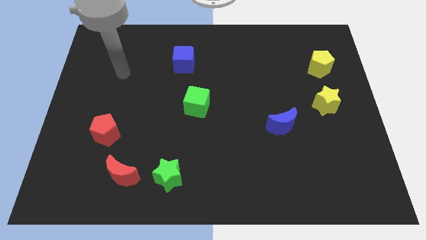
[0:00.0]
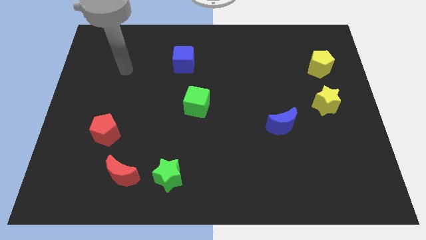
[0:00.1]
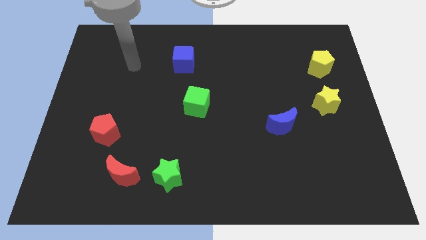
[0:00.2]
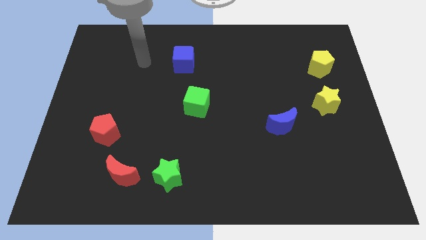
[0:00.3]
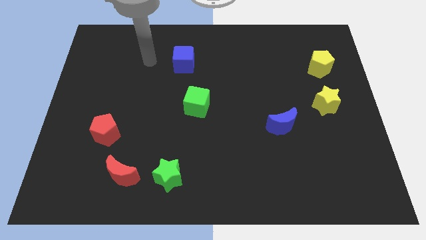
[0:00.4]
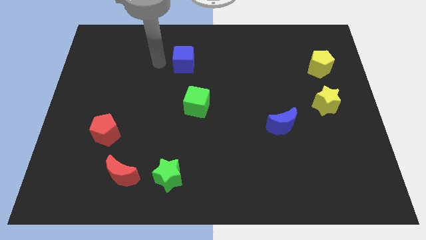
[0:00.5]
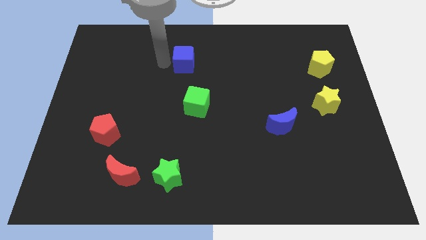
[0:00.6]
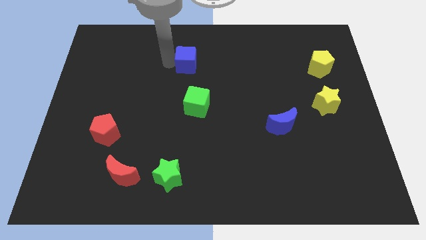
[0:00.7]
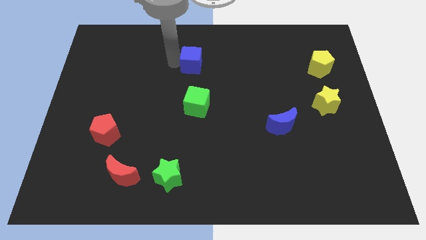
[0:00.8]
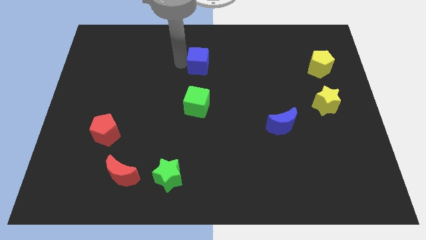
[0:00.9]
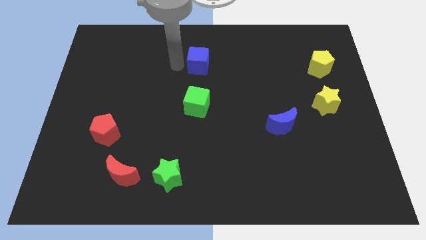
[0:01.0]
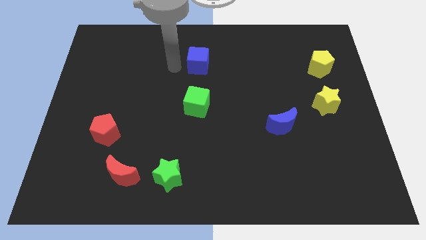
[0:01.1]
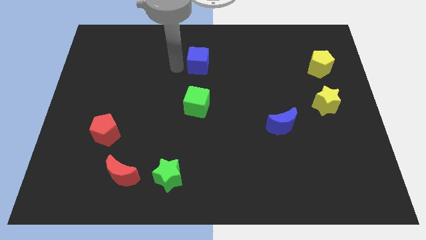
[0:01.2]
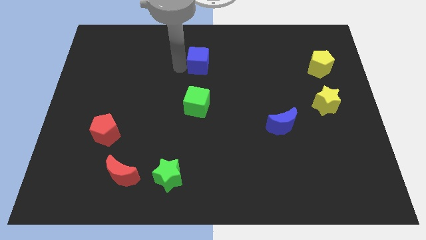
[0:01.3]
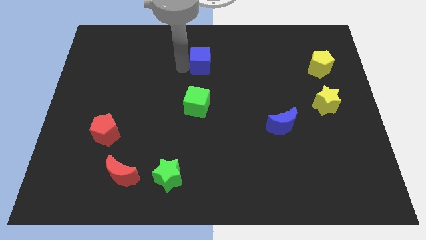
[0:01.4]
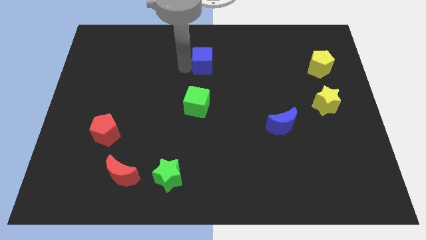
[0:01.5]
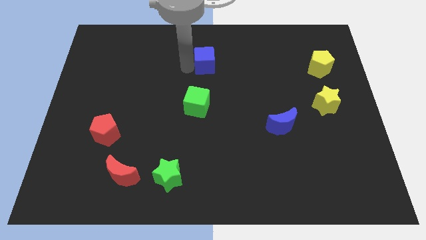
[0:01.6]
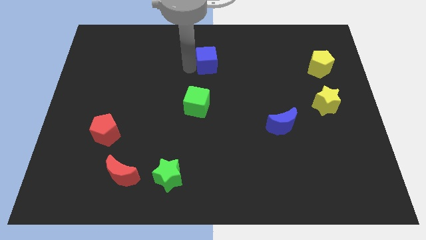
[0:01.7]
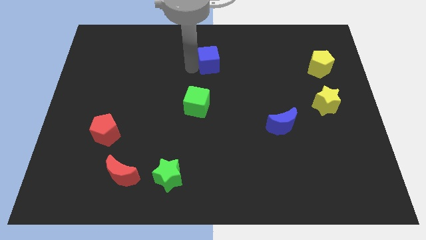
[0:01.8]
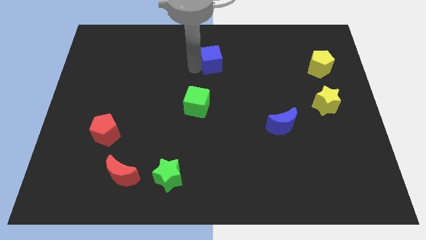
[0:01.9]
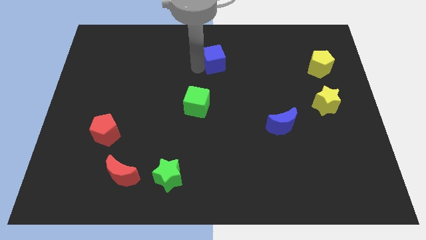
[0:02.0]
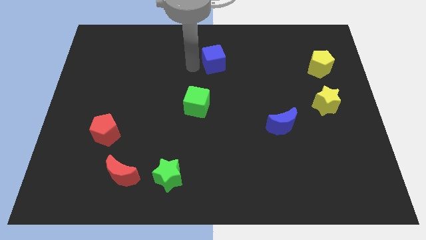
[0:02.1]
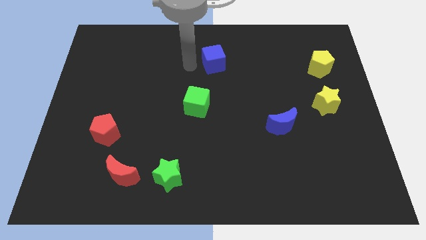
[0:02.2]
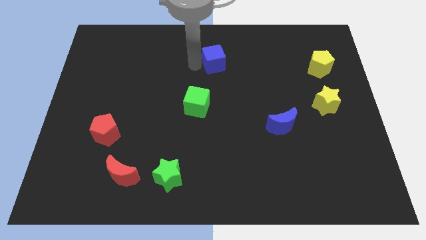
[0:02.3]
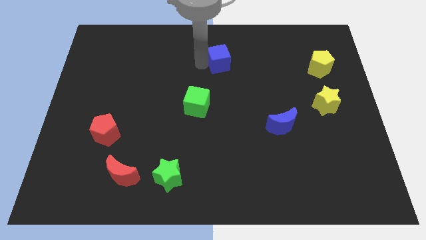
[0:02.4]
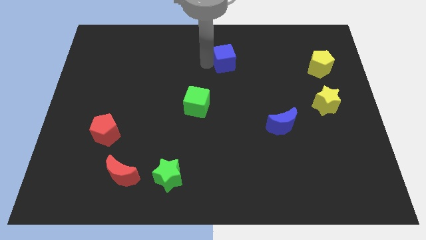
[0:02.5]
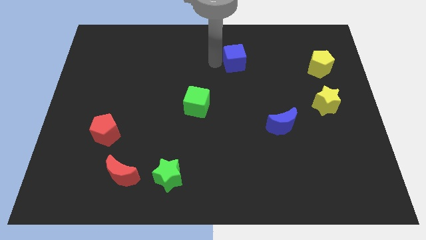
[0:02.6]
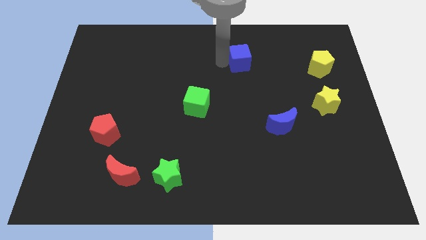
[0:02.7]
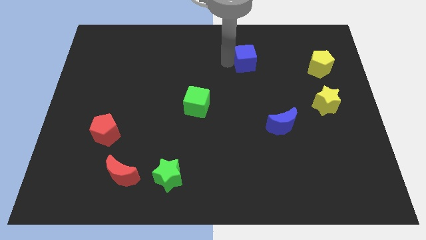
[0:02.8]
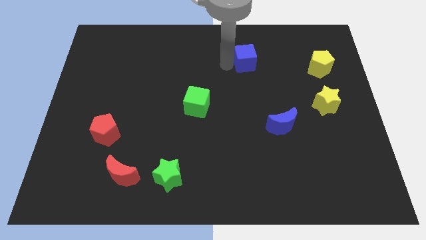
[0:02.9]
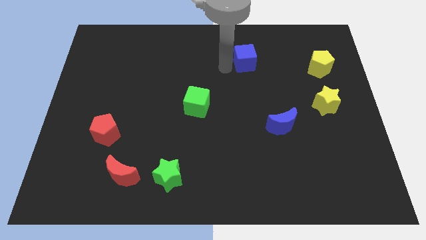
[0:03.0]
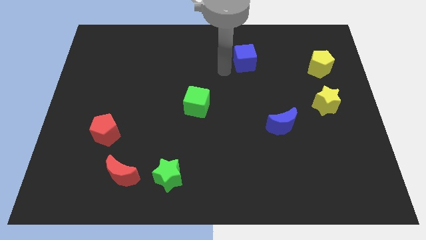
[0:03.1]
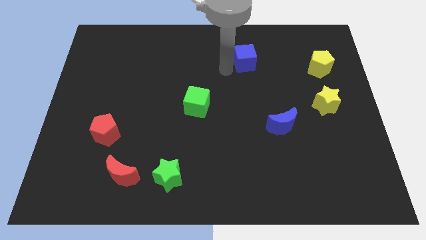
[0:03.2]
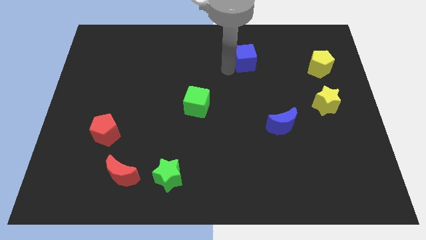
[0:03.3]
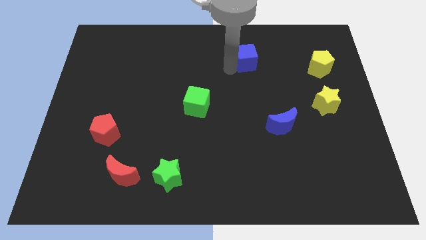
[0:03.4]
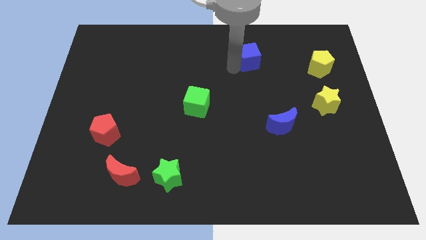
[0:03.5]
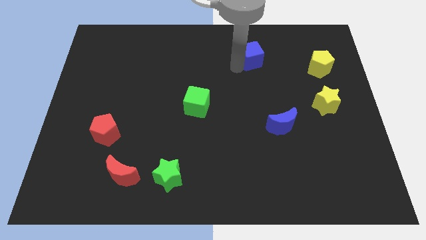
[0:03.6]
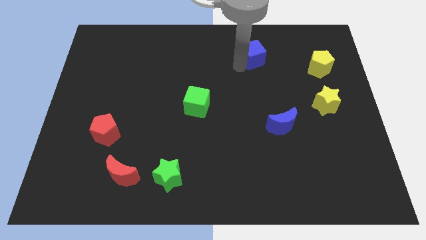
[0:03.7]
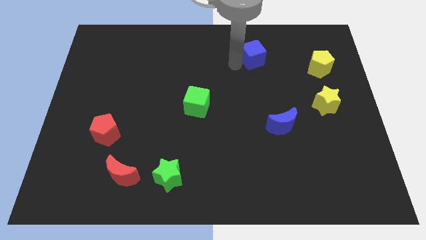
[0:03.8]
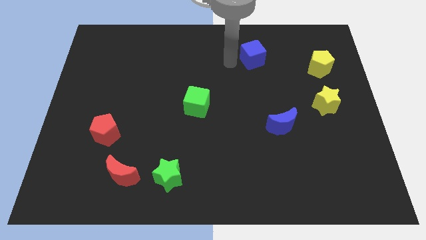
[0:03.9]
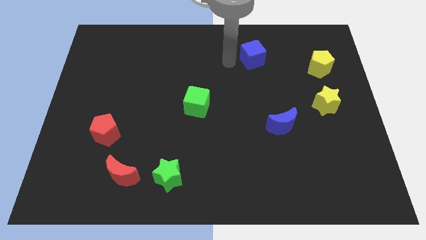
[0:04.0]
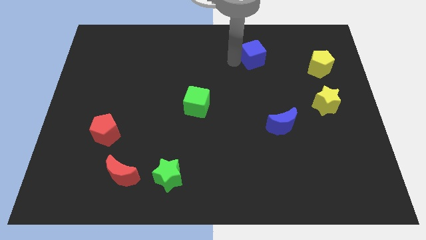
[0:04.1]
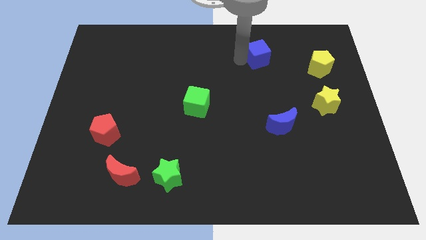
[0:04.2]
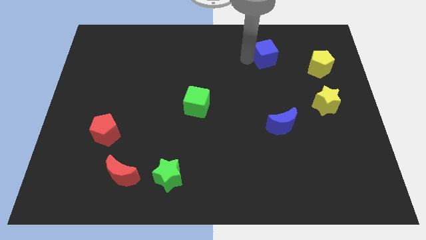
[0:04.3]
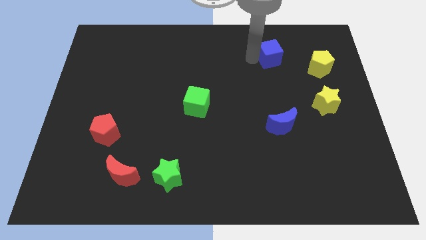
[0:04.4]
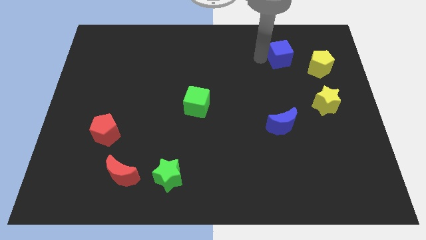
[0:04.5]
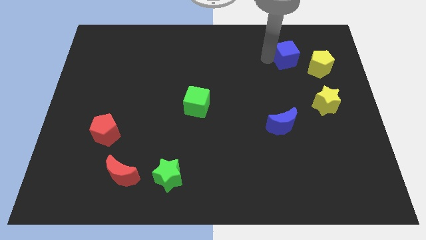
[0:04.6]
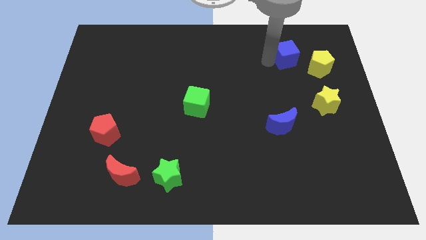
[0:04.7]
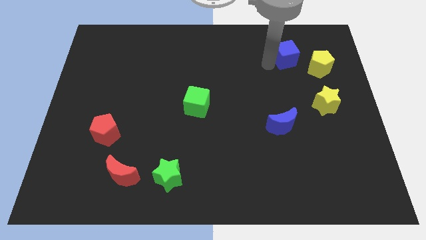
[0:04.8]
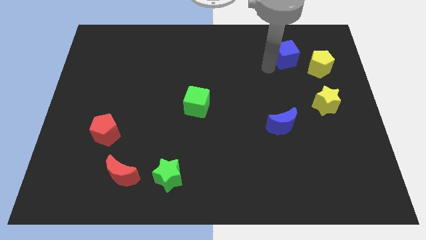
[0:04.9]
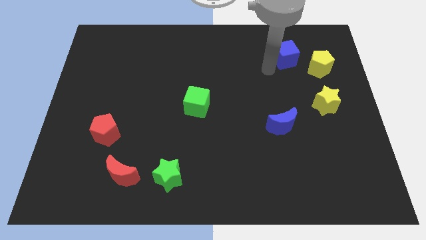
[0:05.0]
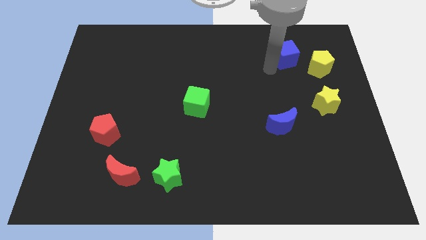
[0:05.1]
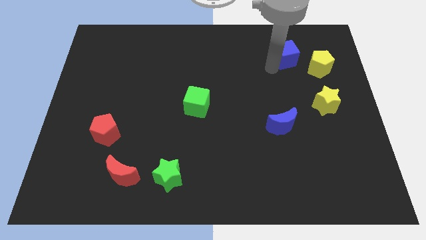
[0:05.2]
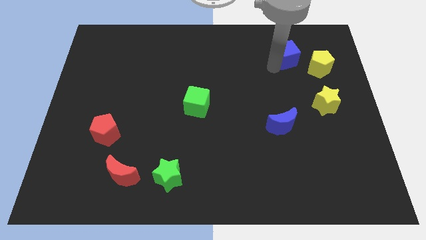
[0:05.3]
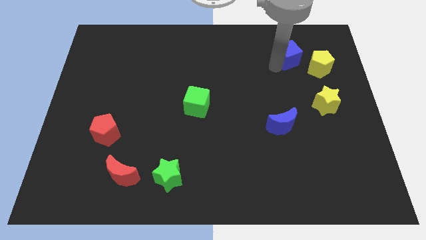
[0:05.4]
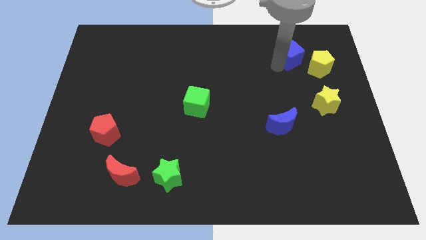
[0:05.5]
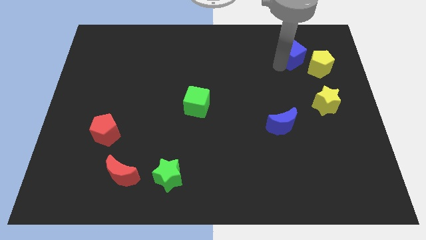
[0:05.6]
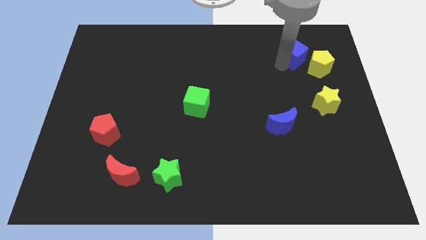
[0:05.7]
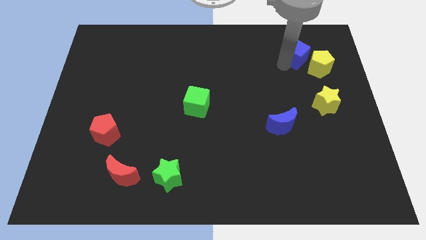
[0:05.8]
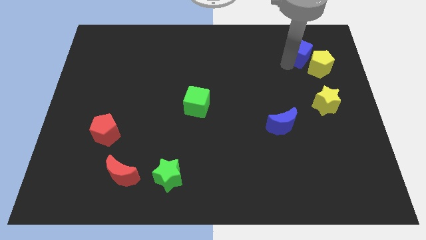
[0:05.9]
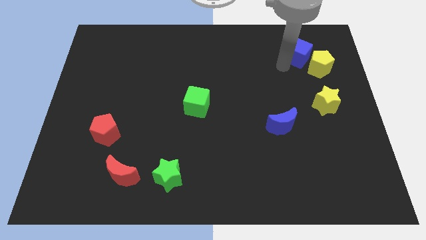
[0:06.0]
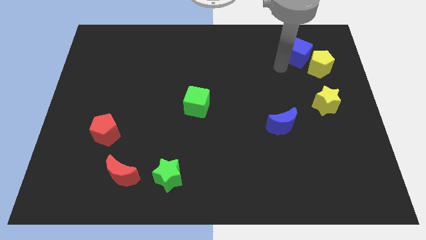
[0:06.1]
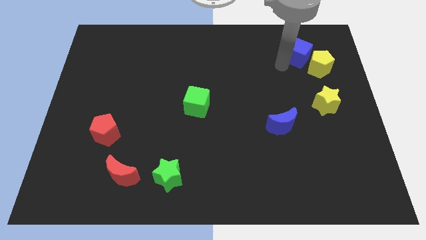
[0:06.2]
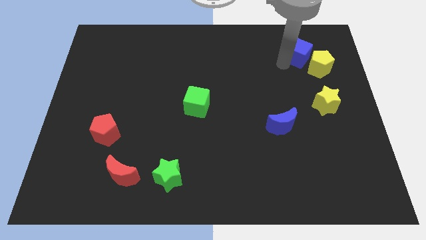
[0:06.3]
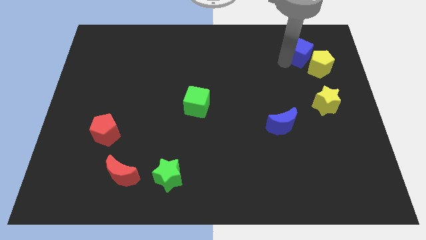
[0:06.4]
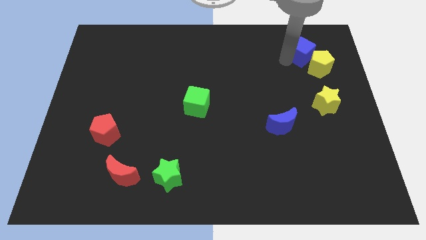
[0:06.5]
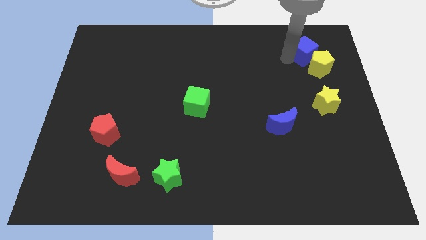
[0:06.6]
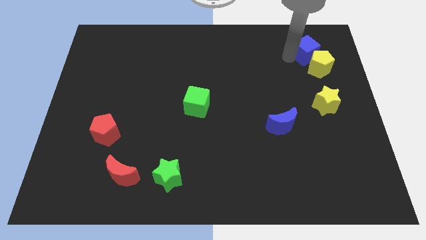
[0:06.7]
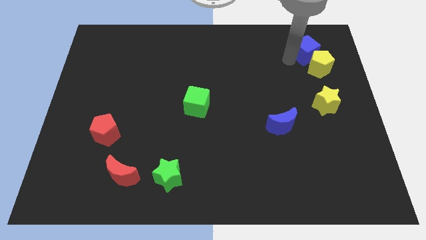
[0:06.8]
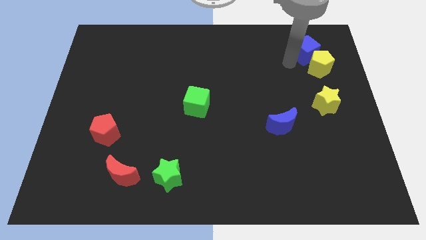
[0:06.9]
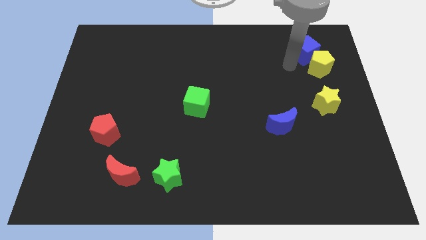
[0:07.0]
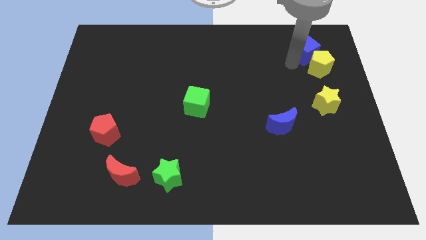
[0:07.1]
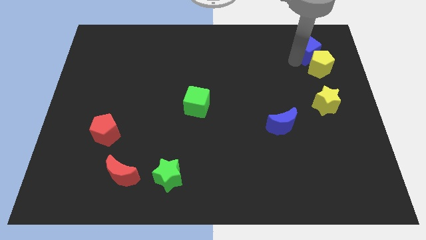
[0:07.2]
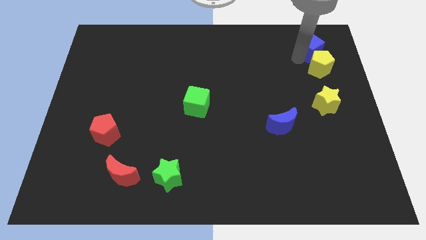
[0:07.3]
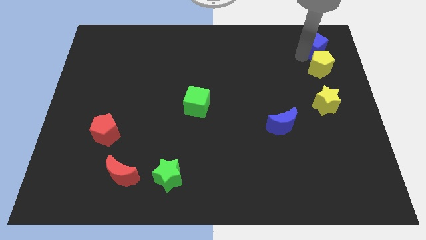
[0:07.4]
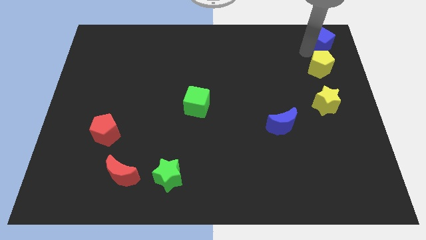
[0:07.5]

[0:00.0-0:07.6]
put the blue cube to the top right corner
